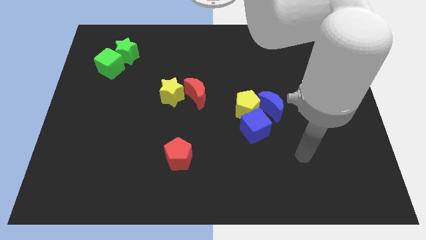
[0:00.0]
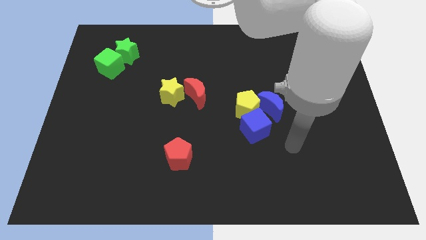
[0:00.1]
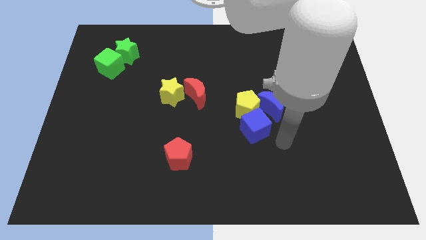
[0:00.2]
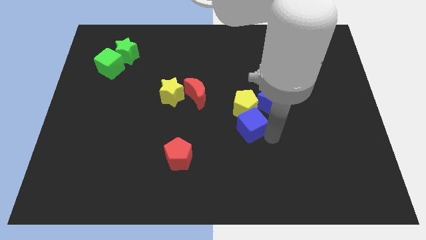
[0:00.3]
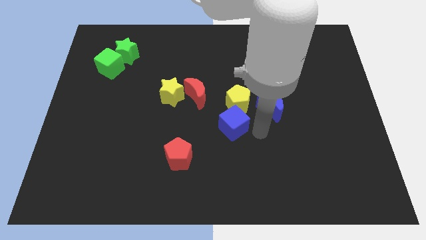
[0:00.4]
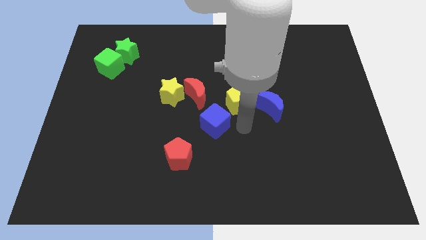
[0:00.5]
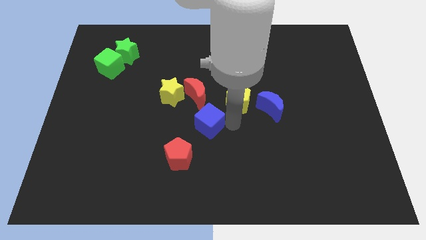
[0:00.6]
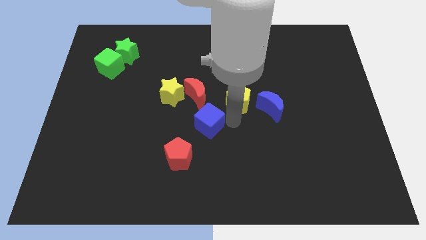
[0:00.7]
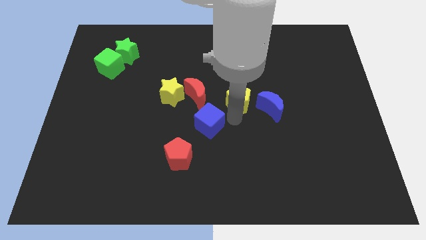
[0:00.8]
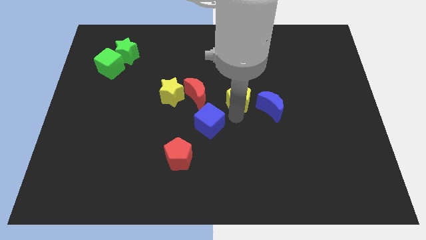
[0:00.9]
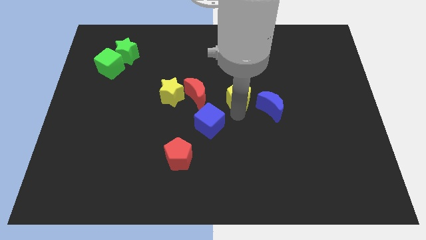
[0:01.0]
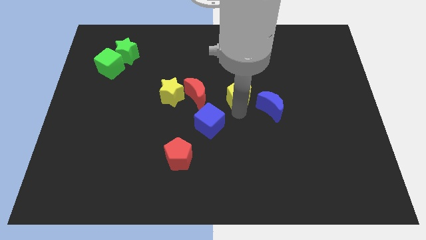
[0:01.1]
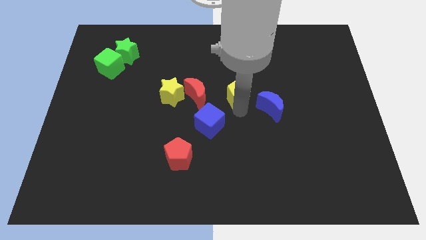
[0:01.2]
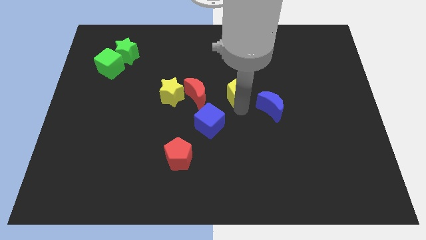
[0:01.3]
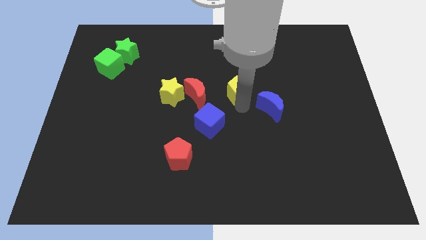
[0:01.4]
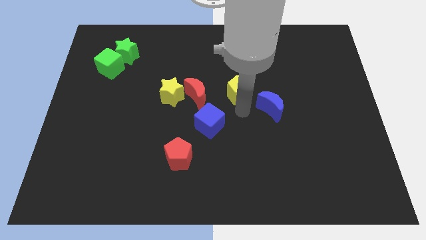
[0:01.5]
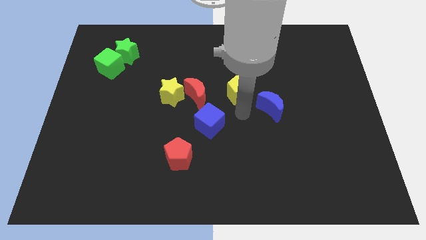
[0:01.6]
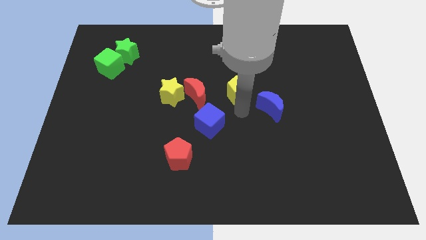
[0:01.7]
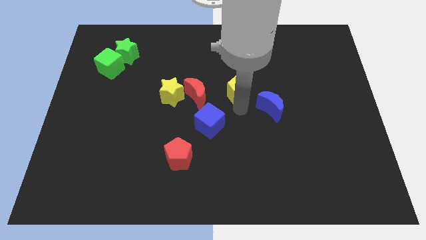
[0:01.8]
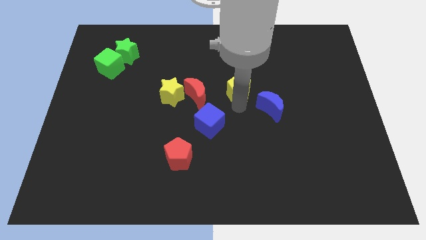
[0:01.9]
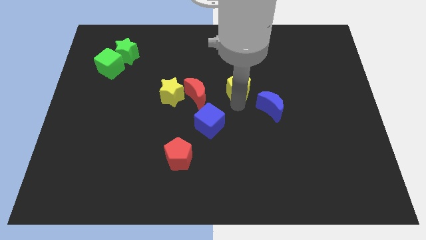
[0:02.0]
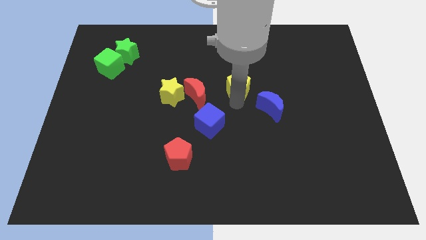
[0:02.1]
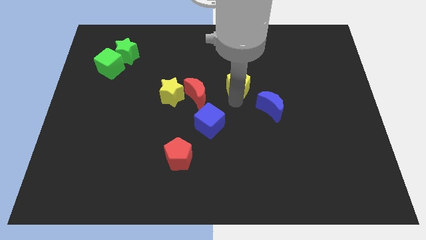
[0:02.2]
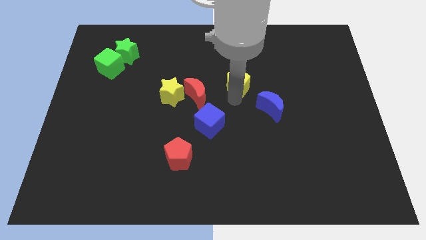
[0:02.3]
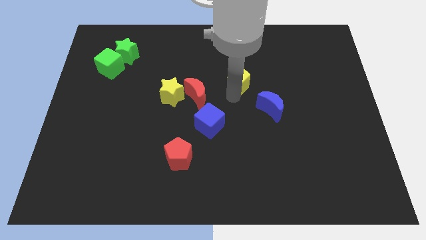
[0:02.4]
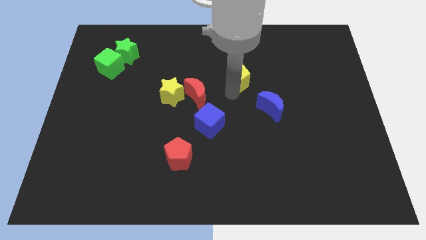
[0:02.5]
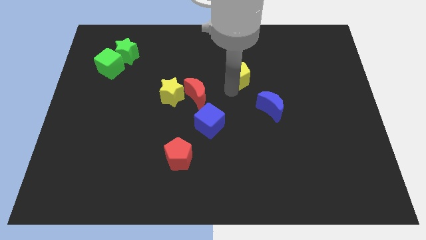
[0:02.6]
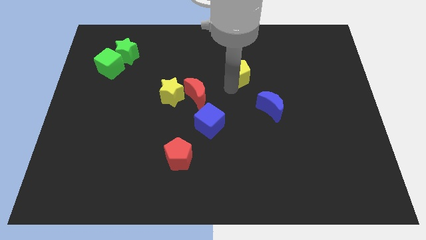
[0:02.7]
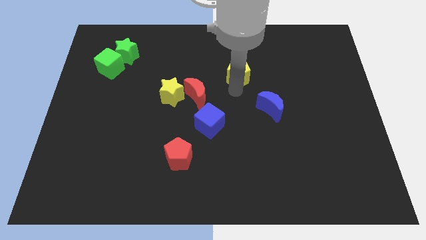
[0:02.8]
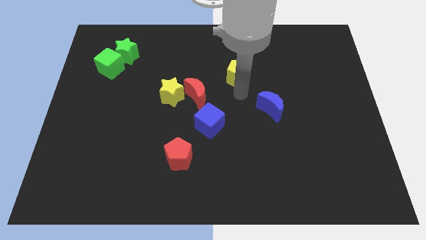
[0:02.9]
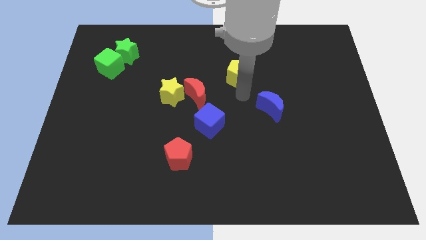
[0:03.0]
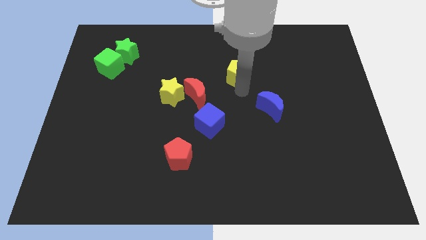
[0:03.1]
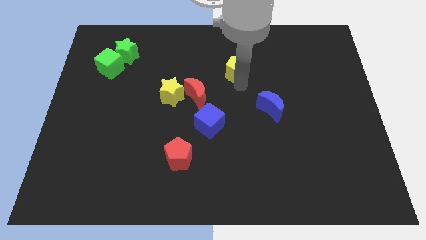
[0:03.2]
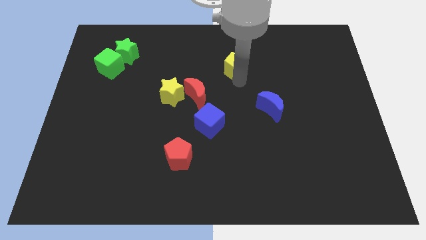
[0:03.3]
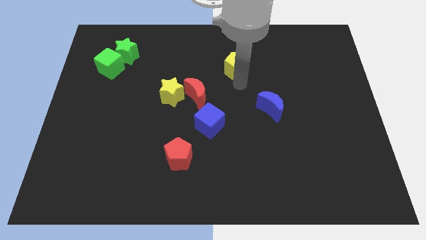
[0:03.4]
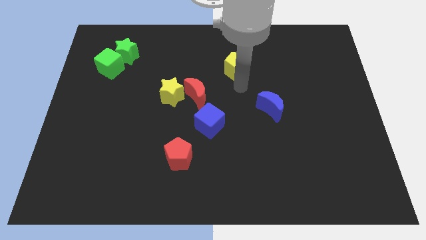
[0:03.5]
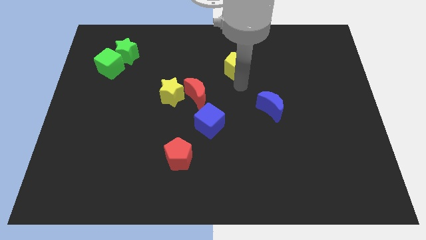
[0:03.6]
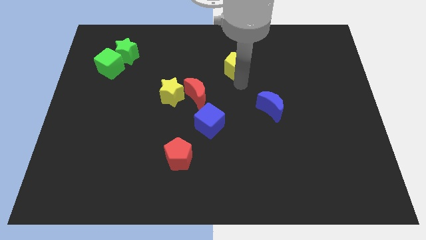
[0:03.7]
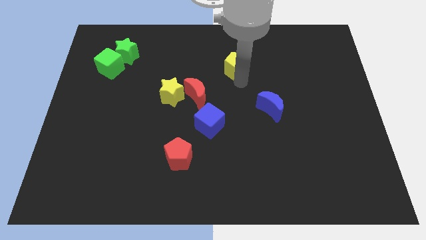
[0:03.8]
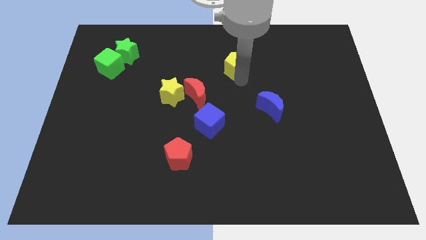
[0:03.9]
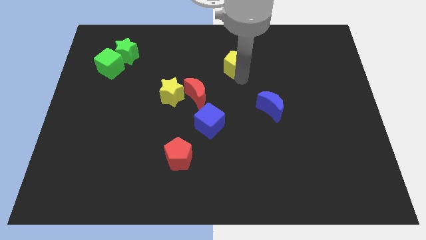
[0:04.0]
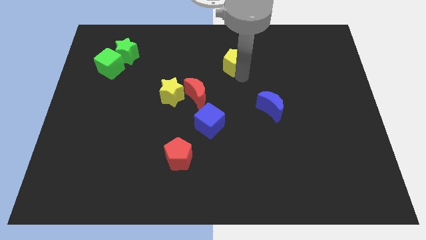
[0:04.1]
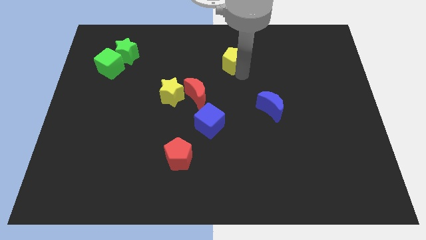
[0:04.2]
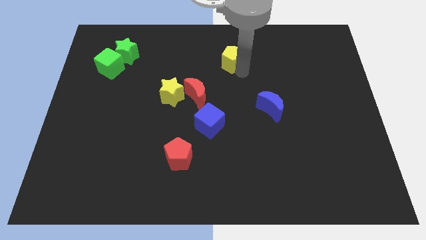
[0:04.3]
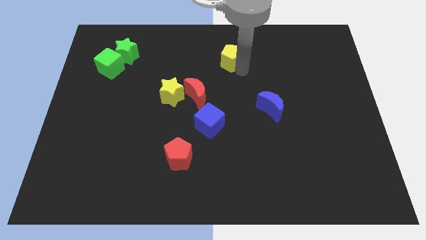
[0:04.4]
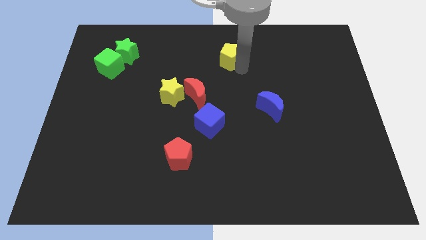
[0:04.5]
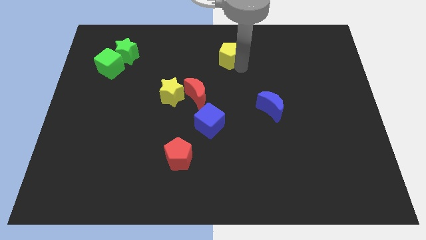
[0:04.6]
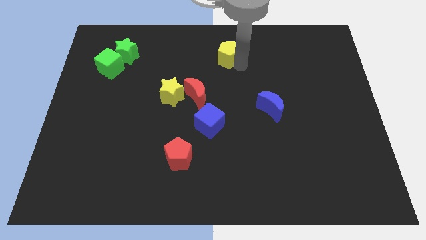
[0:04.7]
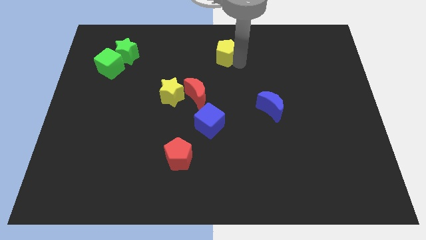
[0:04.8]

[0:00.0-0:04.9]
put the yellow pentagon to the towards your base

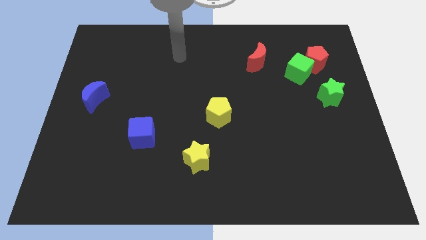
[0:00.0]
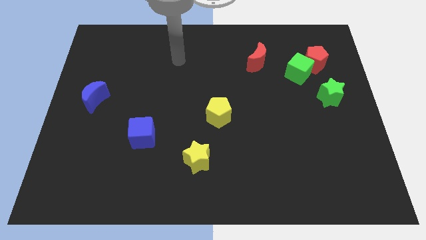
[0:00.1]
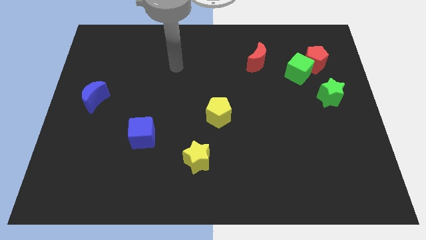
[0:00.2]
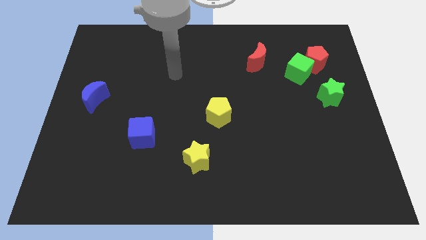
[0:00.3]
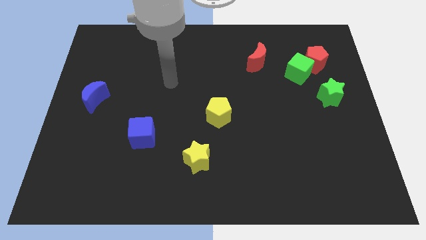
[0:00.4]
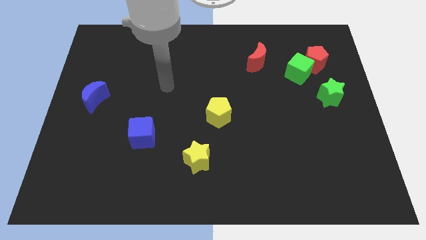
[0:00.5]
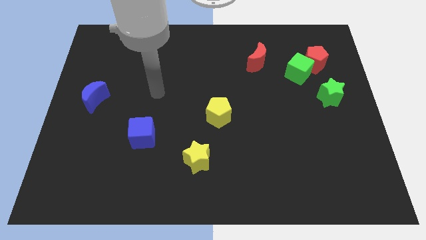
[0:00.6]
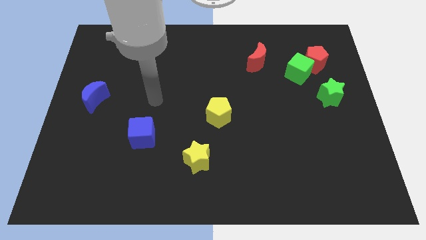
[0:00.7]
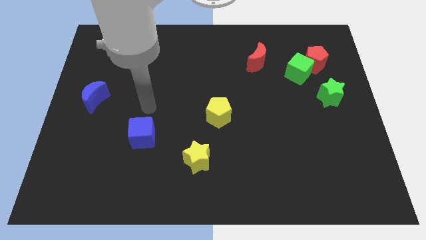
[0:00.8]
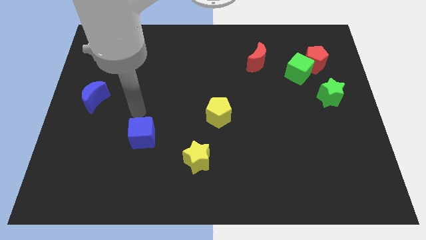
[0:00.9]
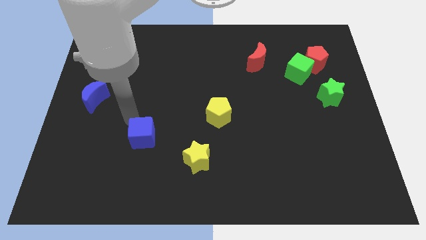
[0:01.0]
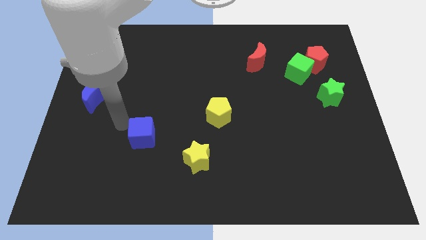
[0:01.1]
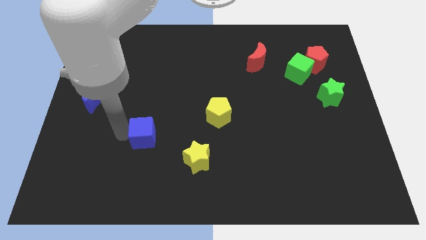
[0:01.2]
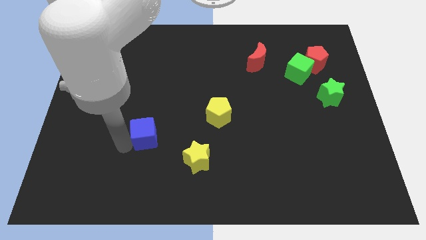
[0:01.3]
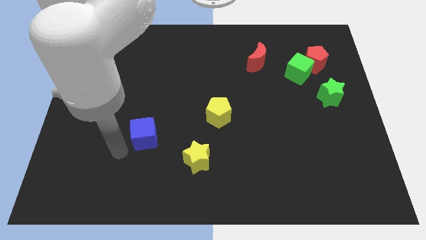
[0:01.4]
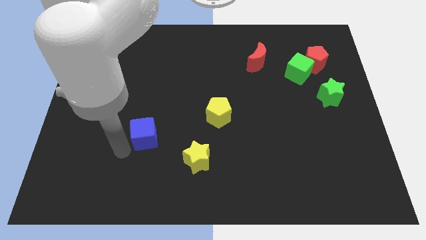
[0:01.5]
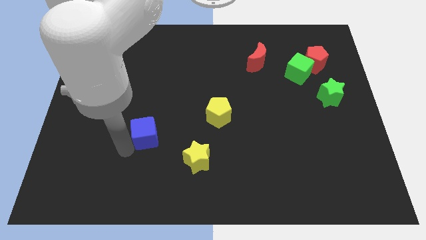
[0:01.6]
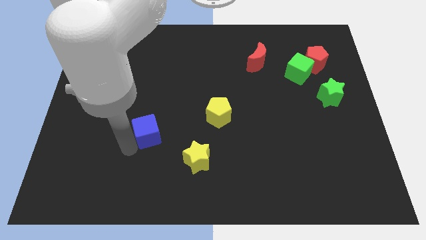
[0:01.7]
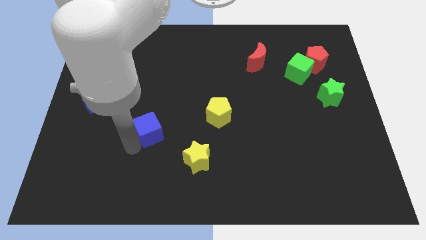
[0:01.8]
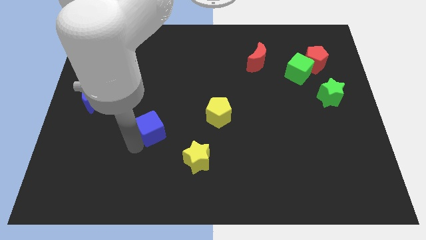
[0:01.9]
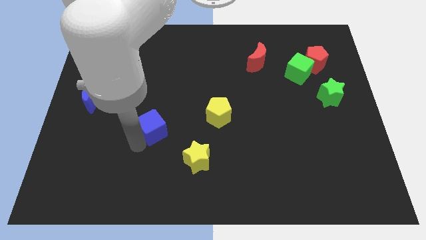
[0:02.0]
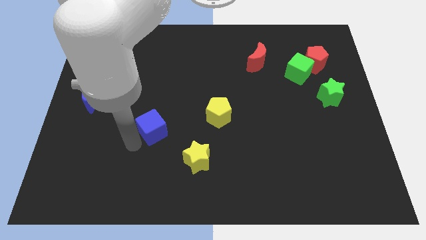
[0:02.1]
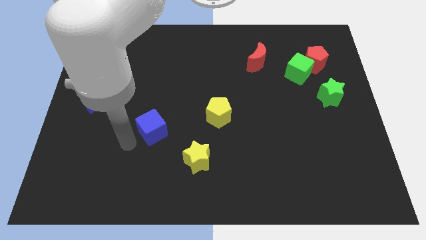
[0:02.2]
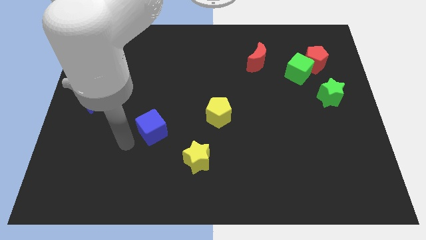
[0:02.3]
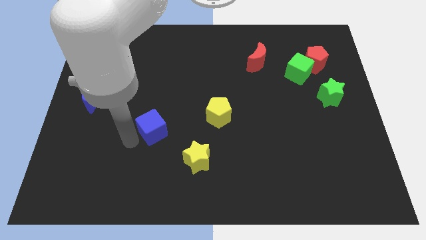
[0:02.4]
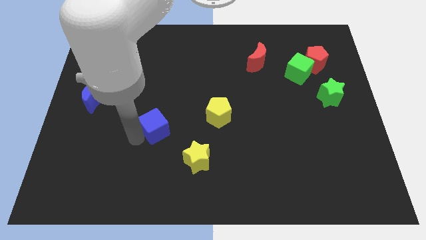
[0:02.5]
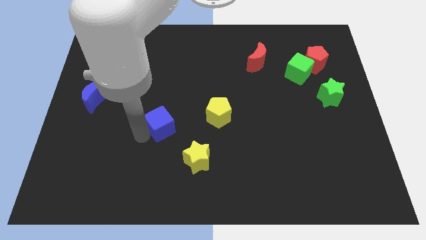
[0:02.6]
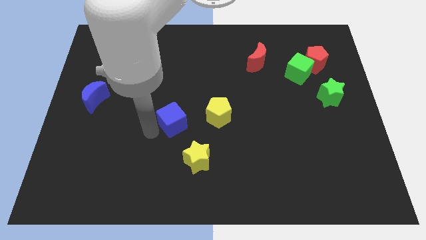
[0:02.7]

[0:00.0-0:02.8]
put the blue cube to the center
